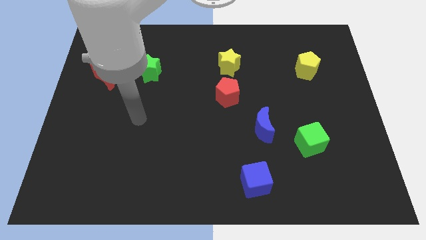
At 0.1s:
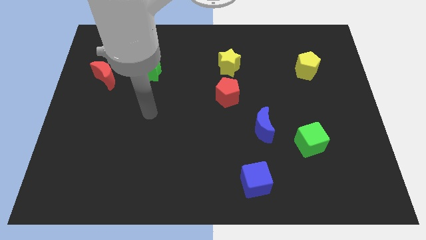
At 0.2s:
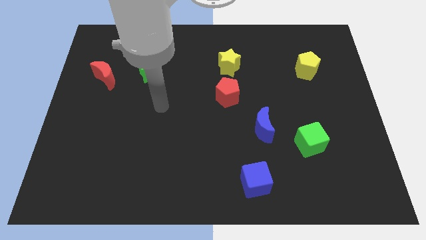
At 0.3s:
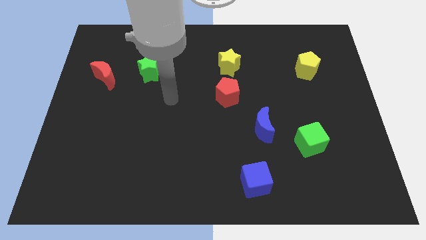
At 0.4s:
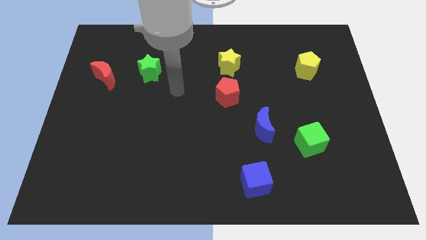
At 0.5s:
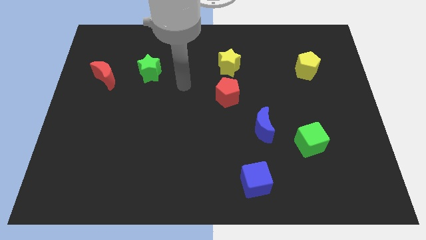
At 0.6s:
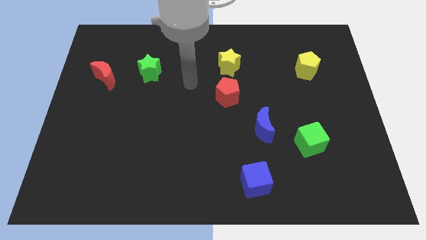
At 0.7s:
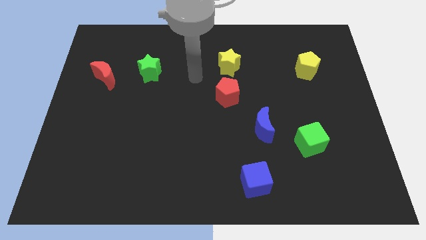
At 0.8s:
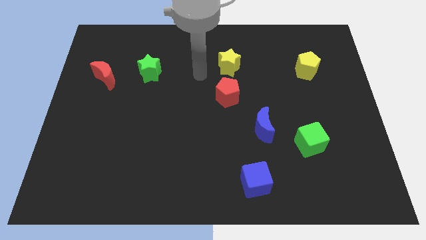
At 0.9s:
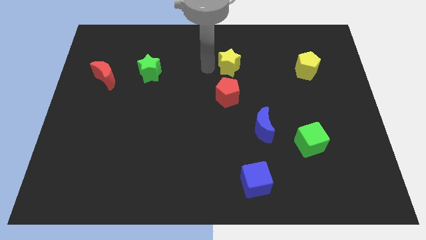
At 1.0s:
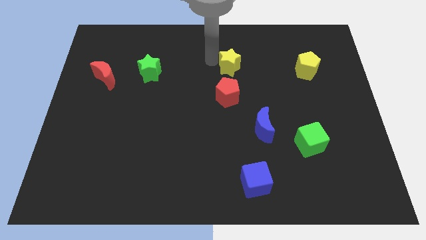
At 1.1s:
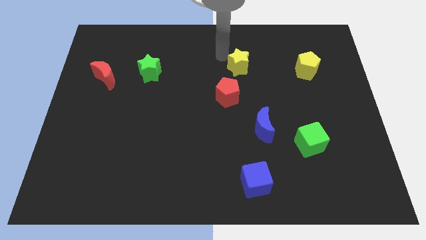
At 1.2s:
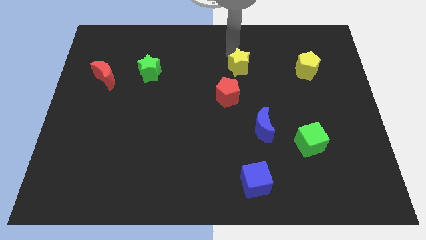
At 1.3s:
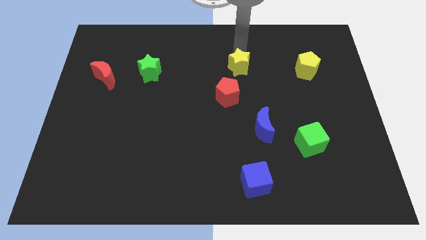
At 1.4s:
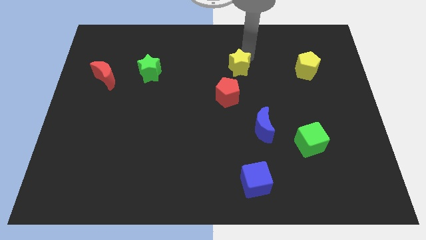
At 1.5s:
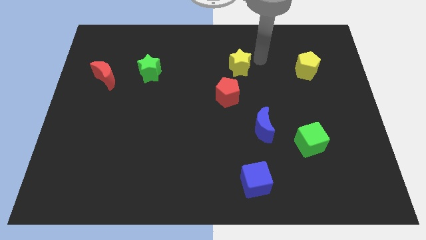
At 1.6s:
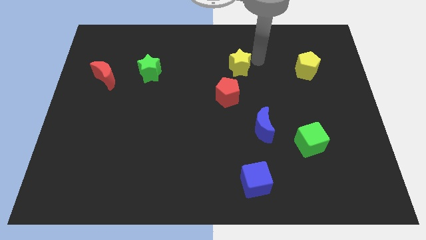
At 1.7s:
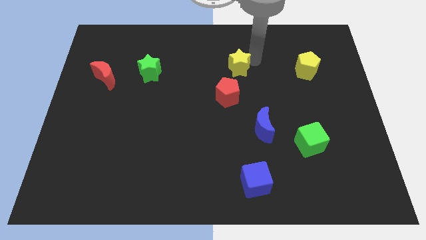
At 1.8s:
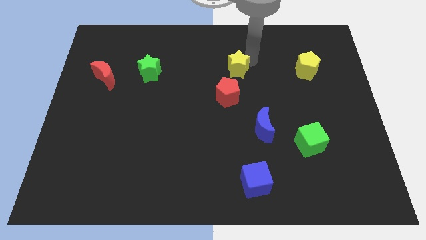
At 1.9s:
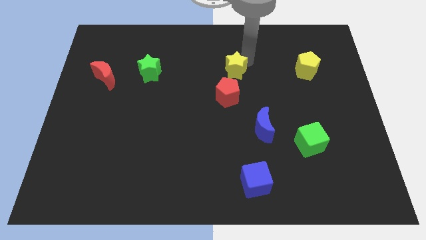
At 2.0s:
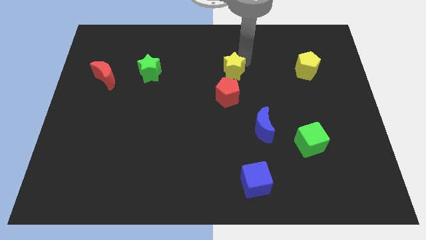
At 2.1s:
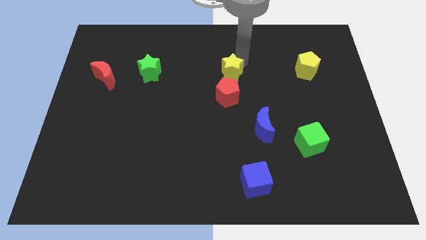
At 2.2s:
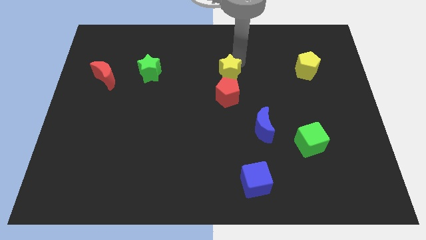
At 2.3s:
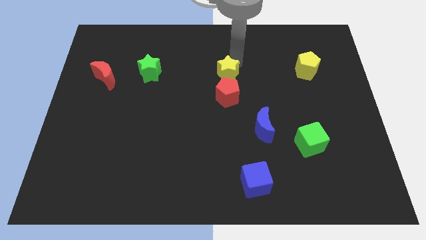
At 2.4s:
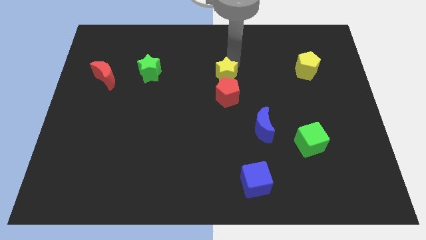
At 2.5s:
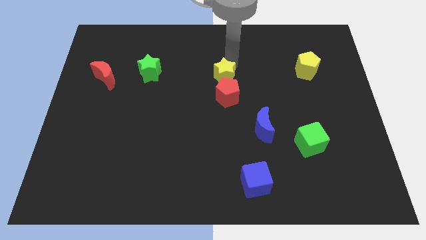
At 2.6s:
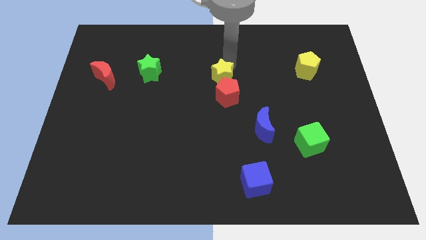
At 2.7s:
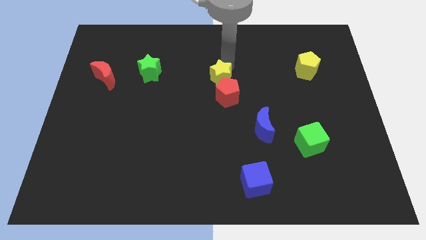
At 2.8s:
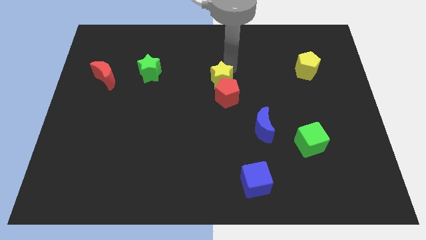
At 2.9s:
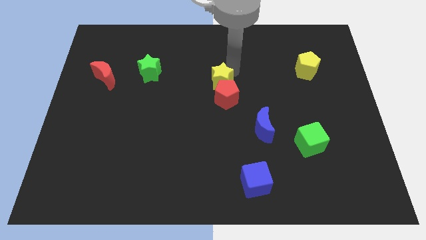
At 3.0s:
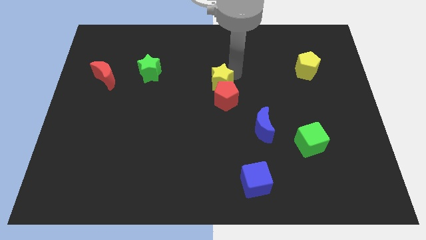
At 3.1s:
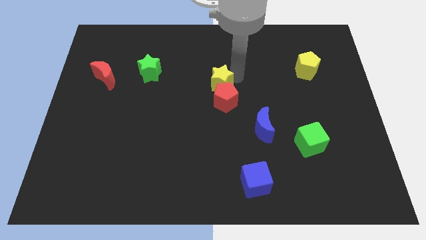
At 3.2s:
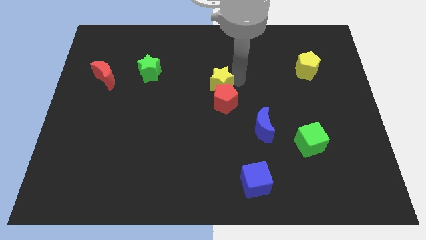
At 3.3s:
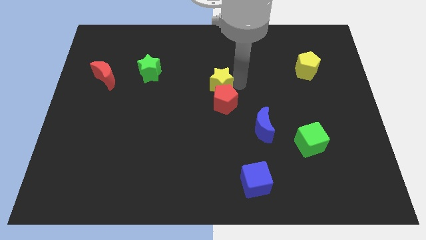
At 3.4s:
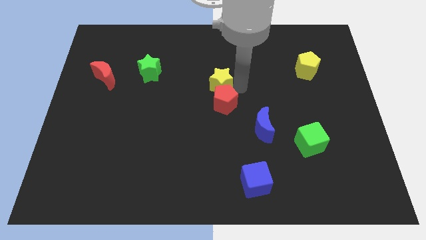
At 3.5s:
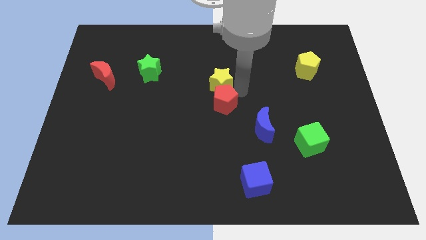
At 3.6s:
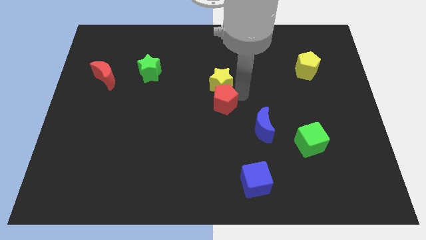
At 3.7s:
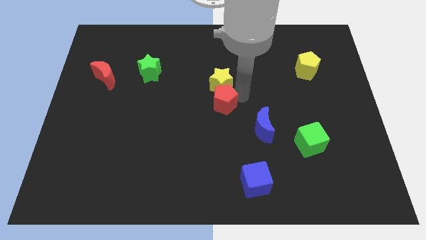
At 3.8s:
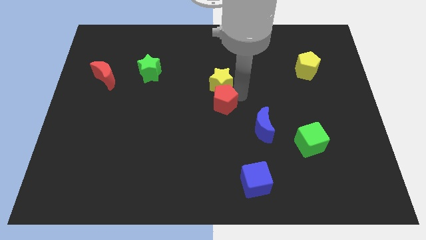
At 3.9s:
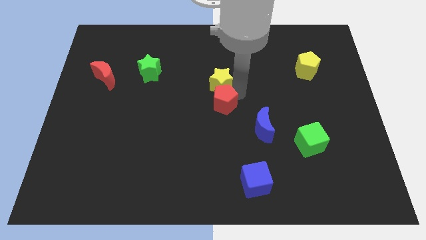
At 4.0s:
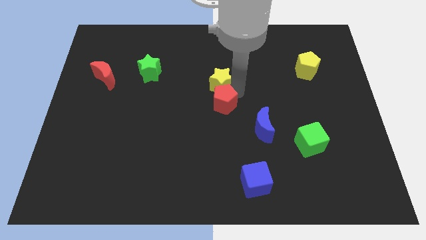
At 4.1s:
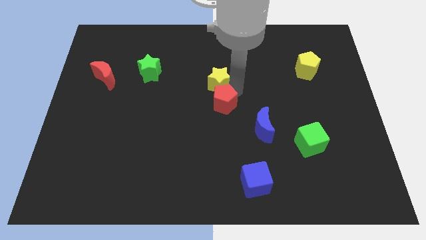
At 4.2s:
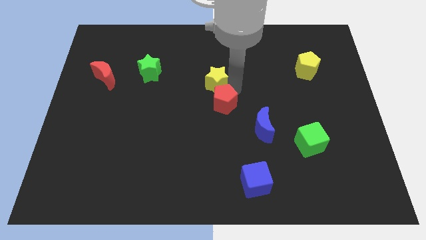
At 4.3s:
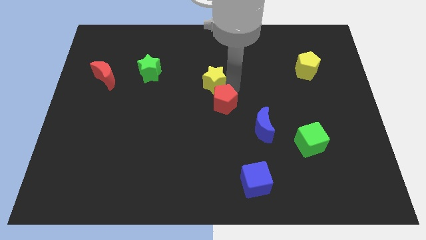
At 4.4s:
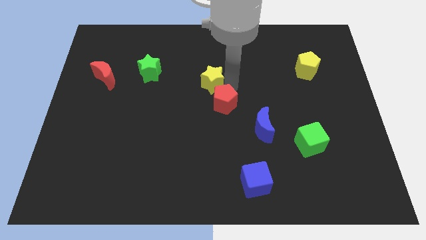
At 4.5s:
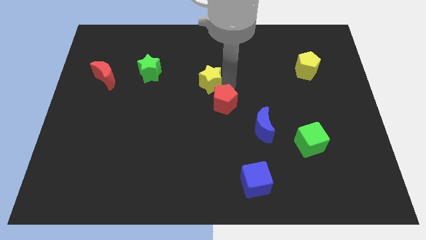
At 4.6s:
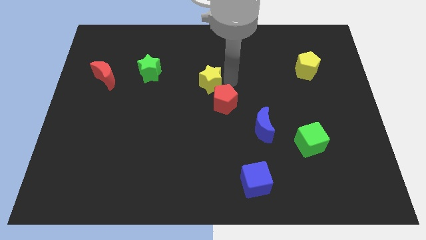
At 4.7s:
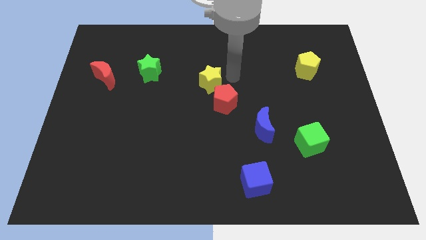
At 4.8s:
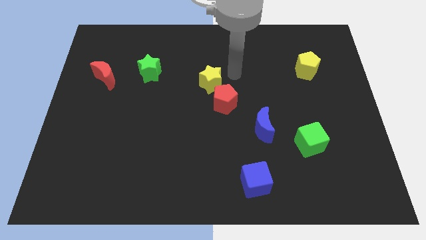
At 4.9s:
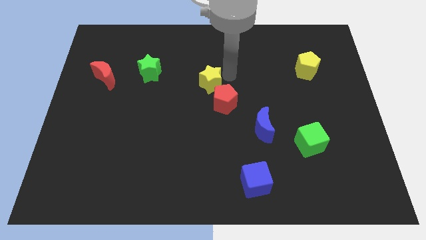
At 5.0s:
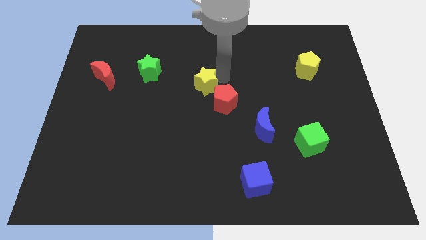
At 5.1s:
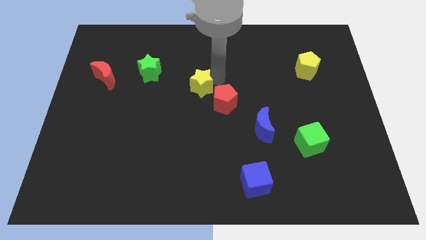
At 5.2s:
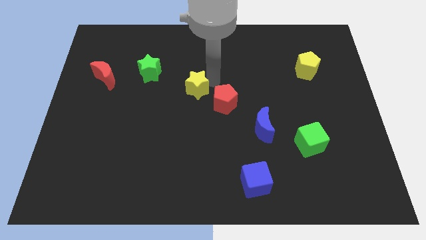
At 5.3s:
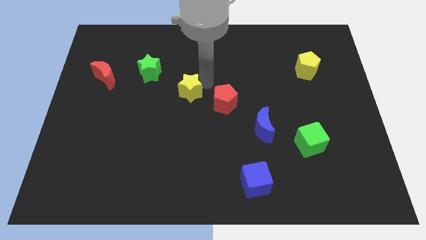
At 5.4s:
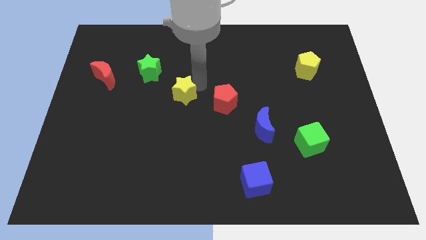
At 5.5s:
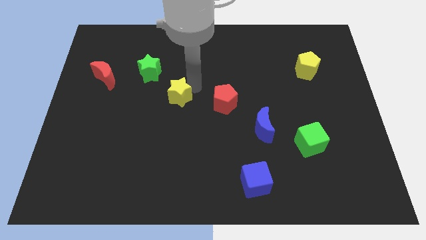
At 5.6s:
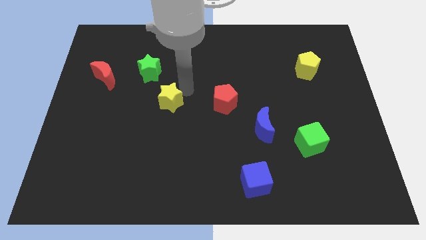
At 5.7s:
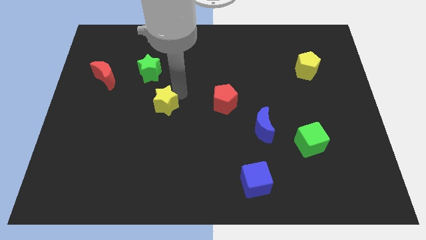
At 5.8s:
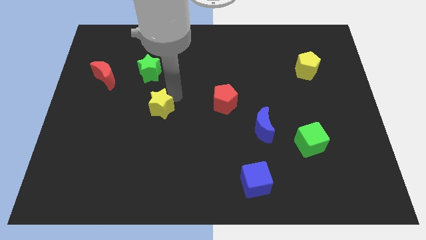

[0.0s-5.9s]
push the yellow star downwards and left diagonally

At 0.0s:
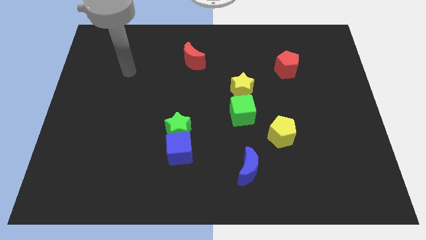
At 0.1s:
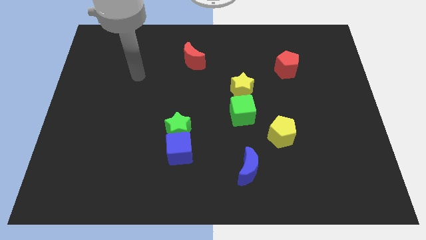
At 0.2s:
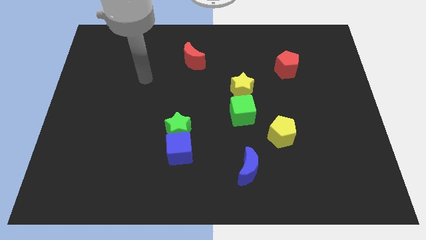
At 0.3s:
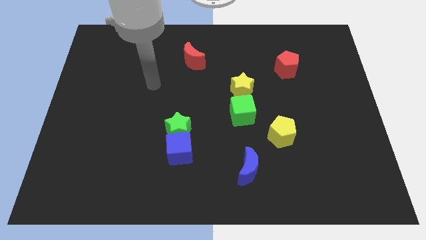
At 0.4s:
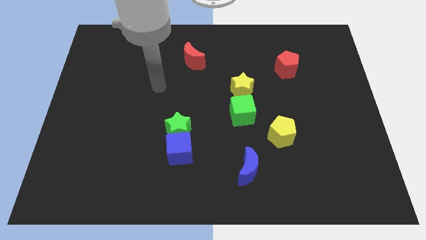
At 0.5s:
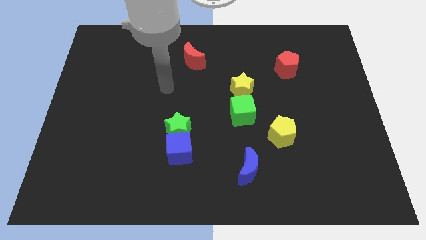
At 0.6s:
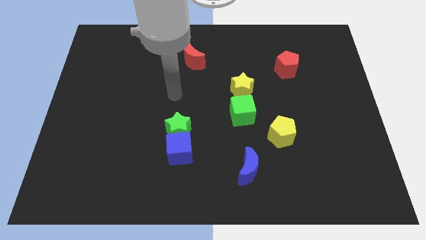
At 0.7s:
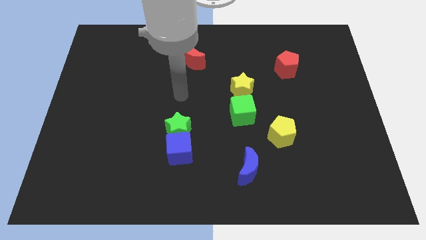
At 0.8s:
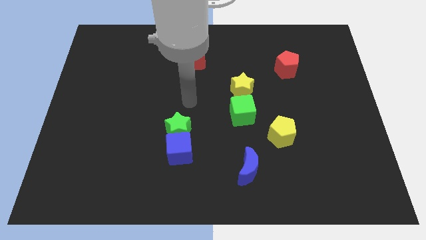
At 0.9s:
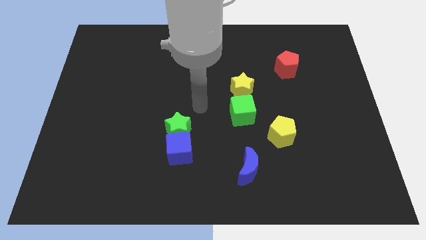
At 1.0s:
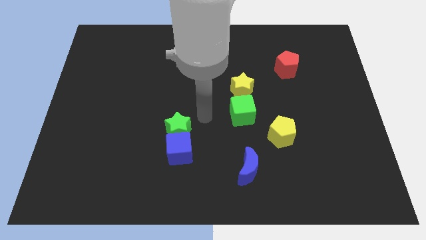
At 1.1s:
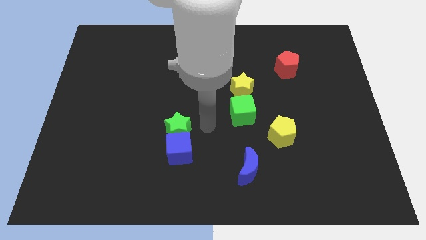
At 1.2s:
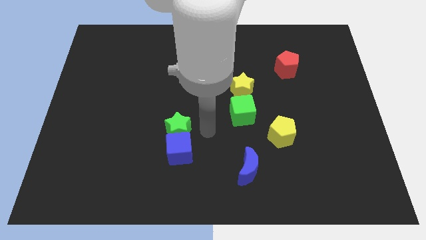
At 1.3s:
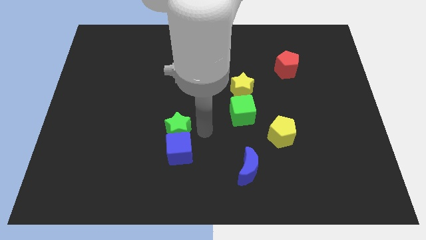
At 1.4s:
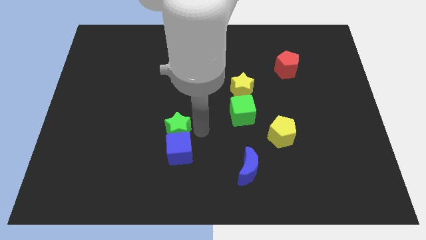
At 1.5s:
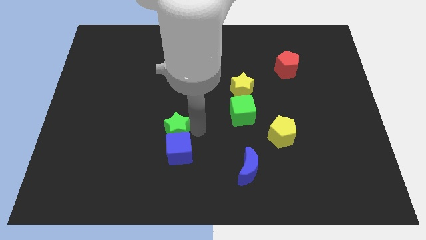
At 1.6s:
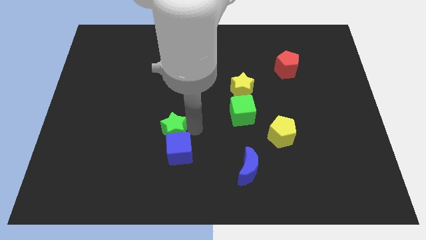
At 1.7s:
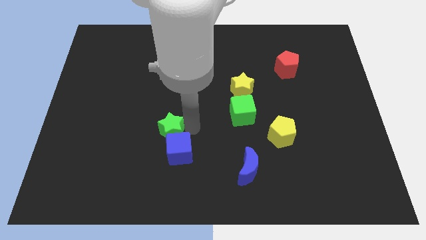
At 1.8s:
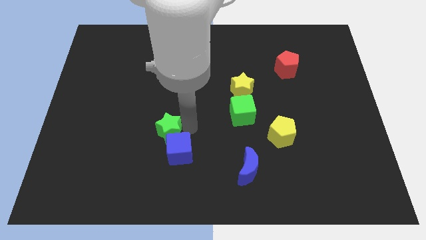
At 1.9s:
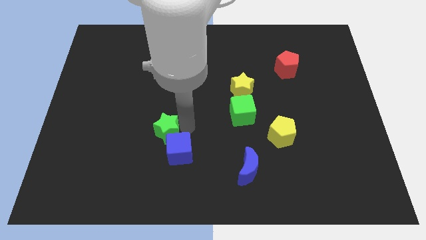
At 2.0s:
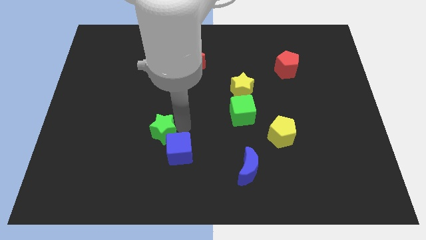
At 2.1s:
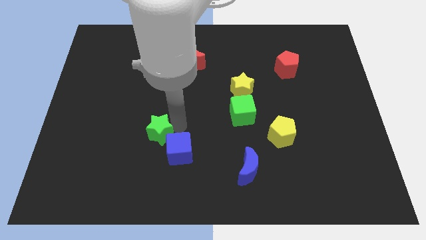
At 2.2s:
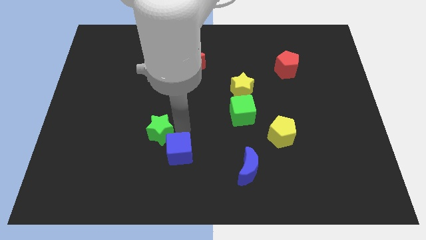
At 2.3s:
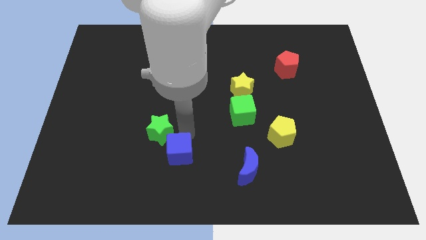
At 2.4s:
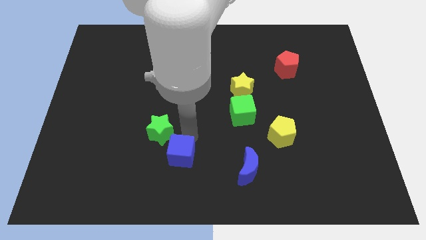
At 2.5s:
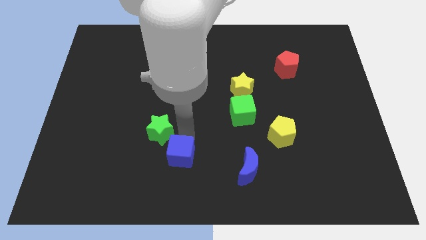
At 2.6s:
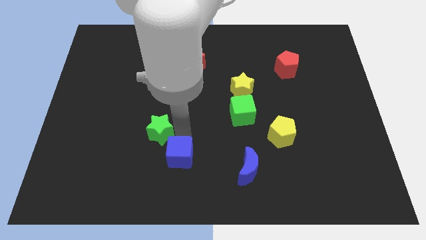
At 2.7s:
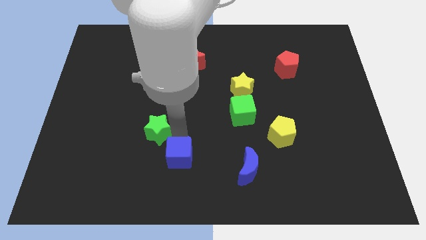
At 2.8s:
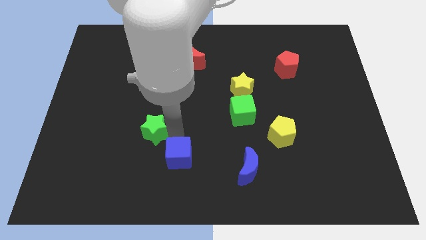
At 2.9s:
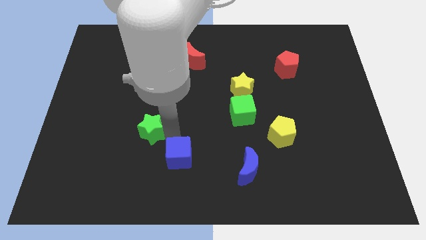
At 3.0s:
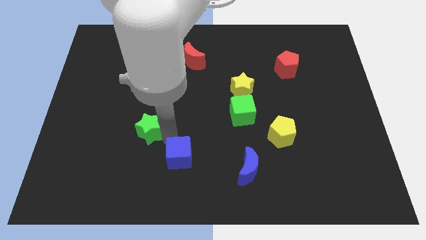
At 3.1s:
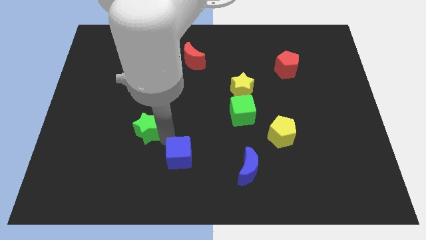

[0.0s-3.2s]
push the green star a bit to the left
